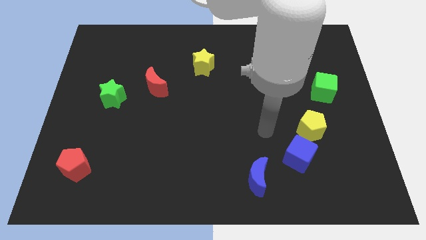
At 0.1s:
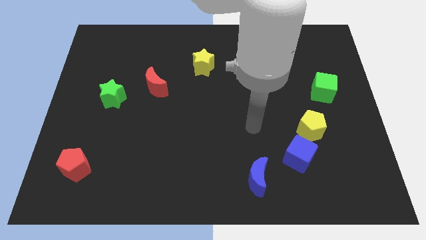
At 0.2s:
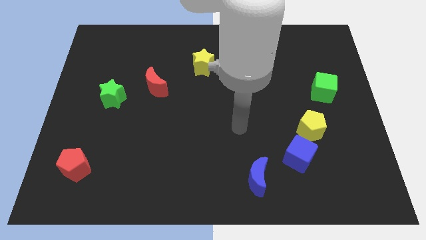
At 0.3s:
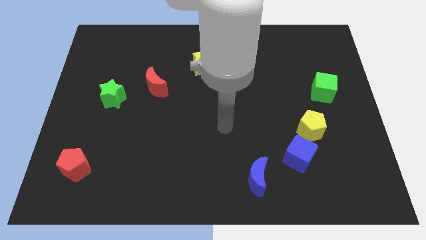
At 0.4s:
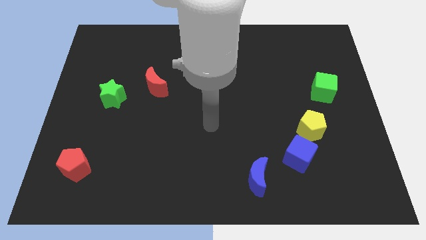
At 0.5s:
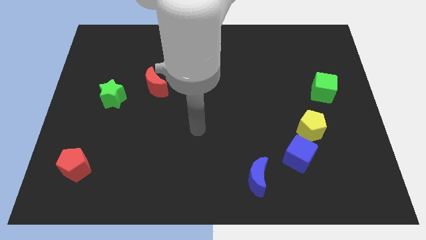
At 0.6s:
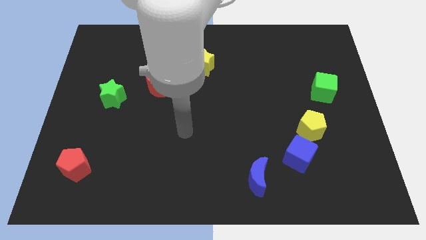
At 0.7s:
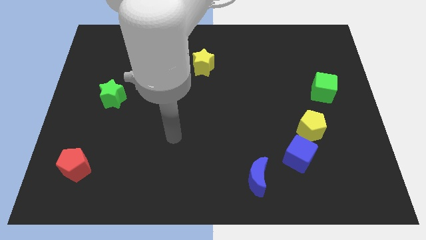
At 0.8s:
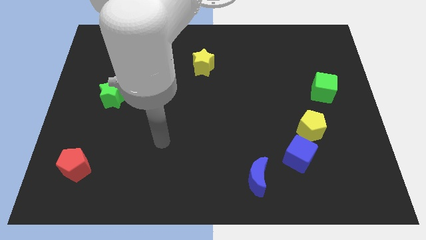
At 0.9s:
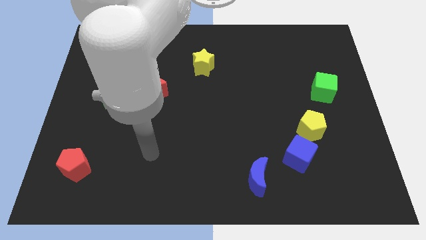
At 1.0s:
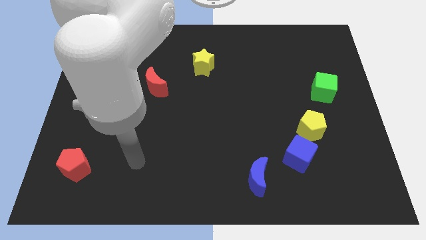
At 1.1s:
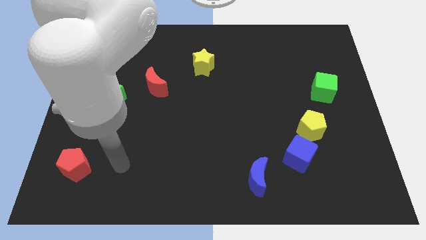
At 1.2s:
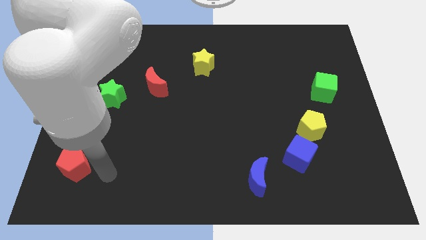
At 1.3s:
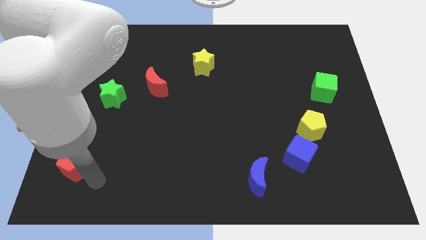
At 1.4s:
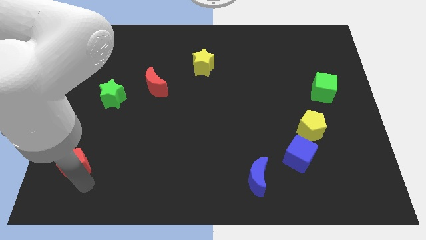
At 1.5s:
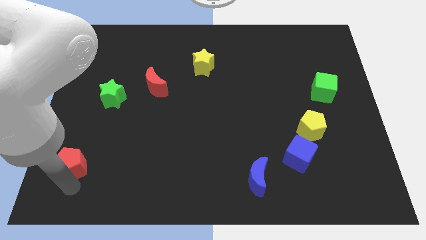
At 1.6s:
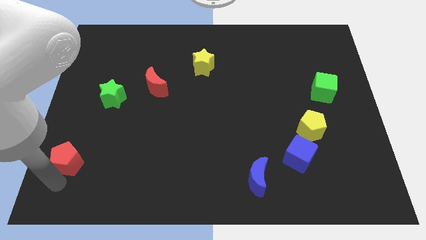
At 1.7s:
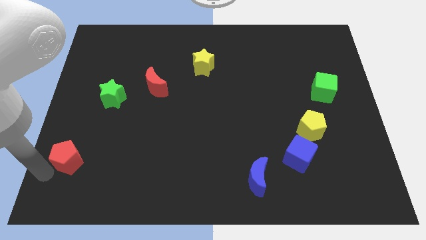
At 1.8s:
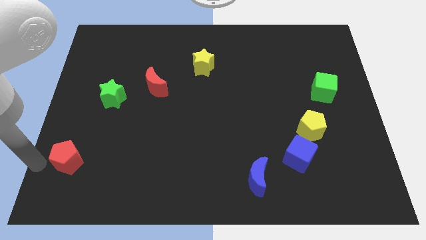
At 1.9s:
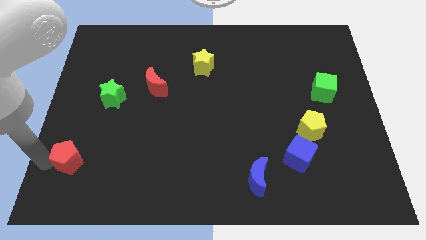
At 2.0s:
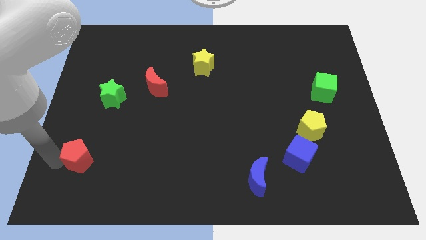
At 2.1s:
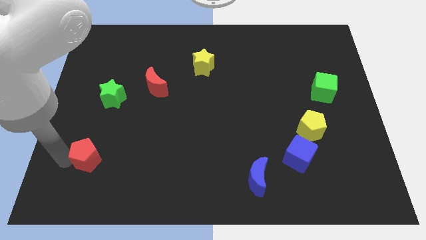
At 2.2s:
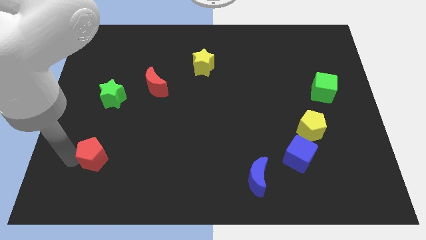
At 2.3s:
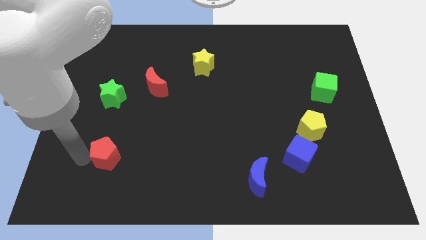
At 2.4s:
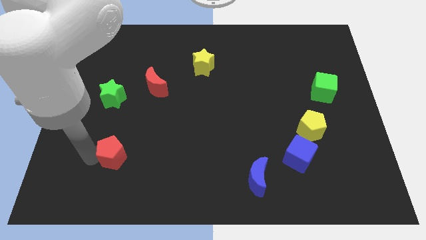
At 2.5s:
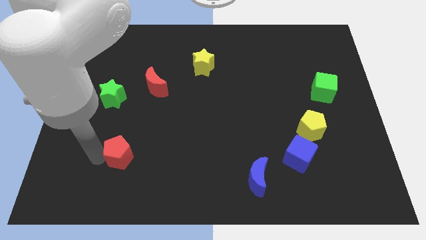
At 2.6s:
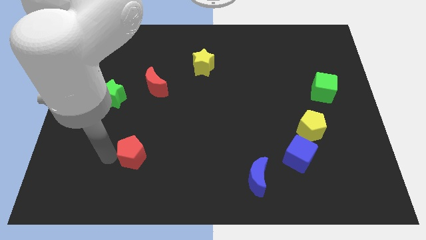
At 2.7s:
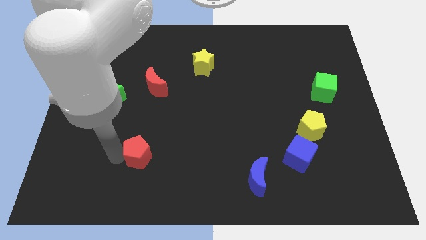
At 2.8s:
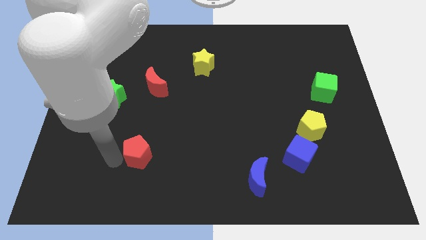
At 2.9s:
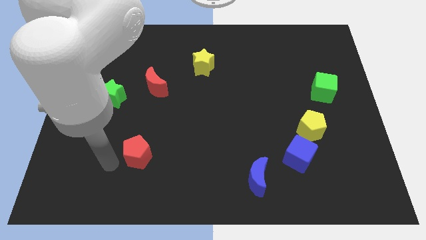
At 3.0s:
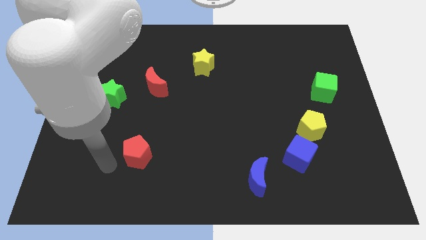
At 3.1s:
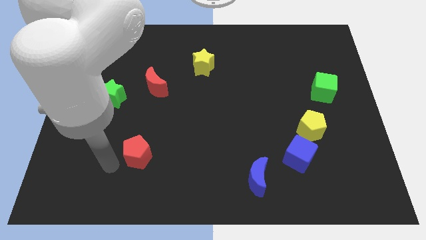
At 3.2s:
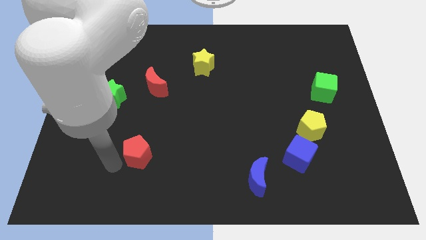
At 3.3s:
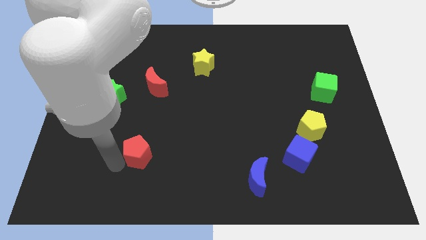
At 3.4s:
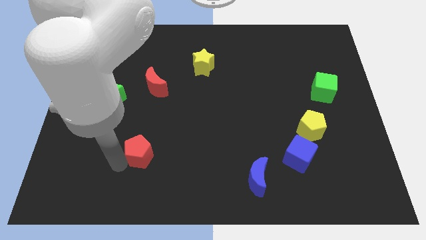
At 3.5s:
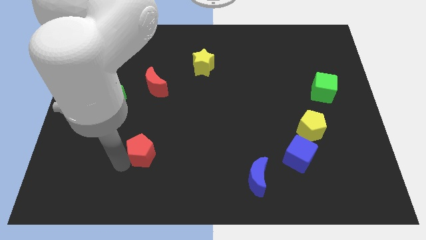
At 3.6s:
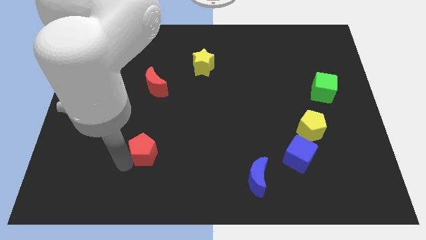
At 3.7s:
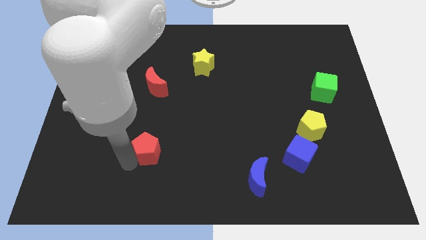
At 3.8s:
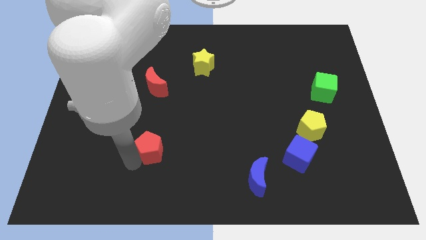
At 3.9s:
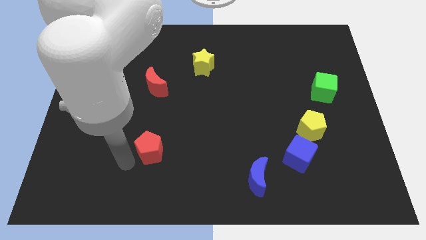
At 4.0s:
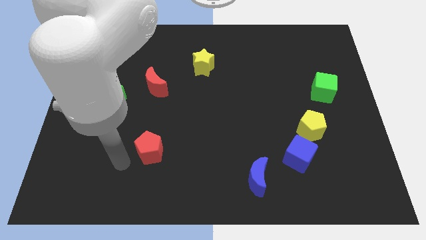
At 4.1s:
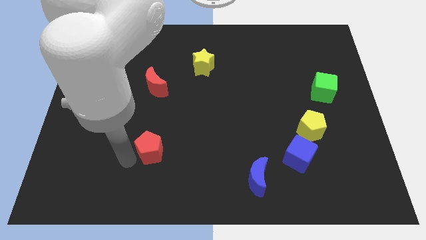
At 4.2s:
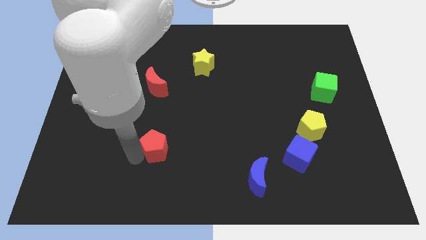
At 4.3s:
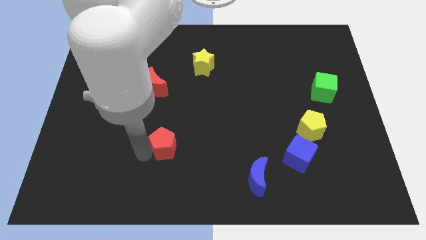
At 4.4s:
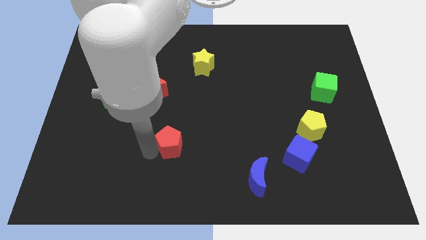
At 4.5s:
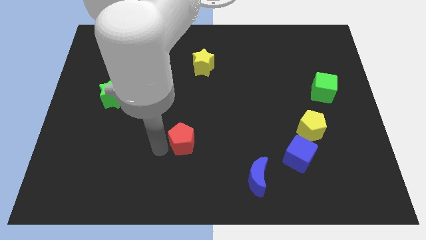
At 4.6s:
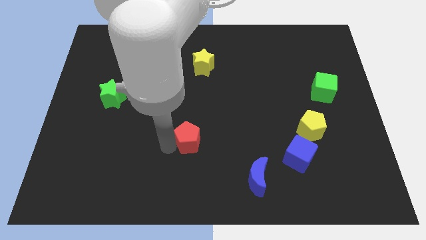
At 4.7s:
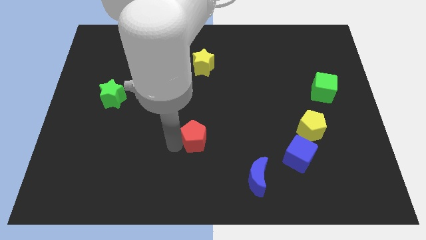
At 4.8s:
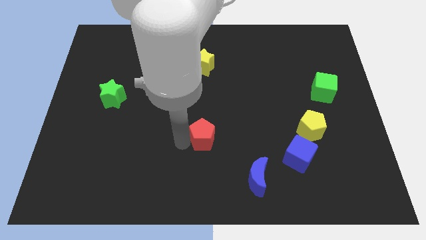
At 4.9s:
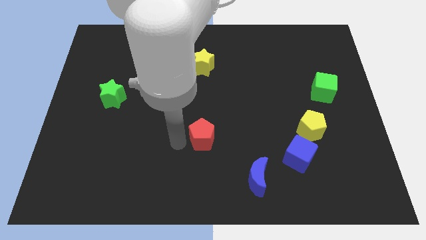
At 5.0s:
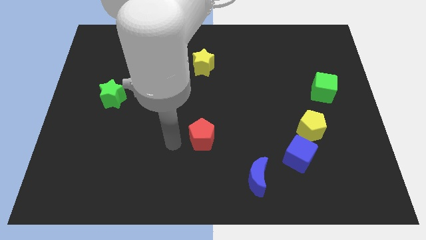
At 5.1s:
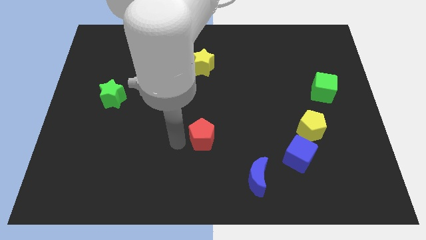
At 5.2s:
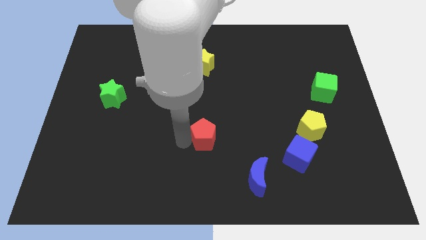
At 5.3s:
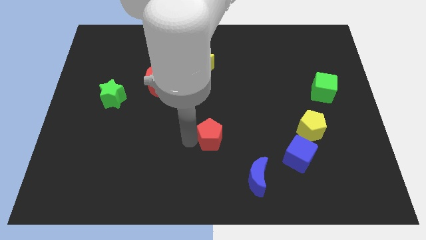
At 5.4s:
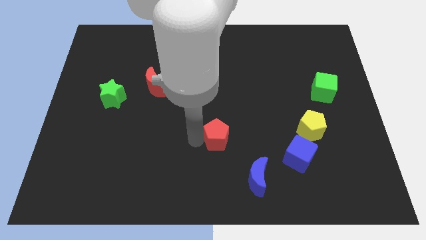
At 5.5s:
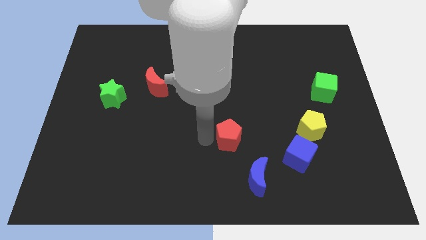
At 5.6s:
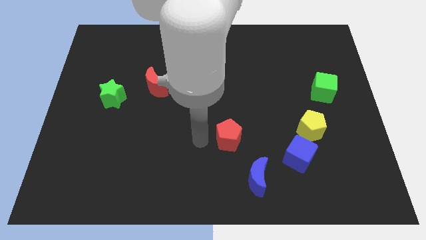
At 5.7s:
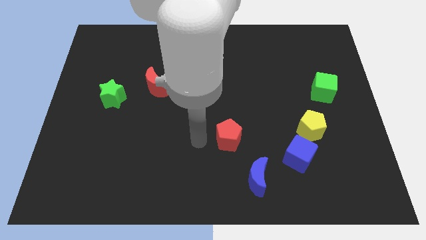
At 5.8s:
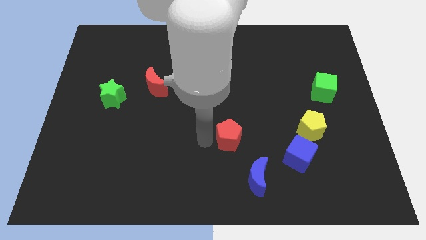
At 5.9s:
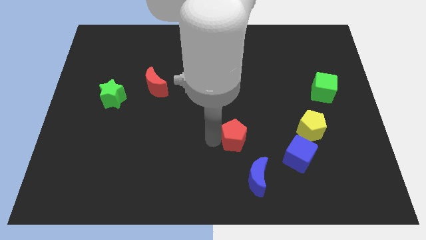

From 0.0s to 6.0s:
slide the red pentagon to the top of the blue moon
